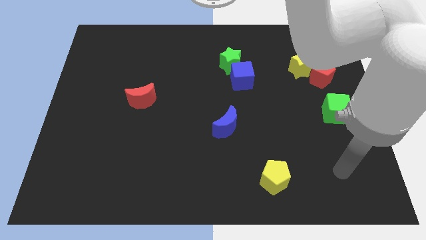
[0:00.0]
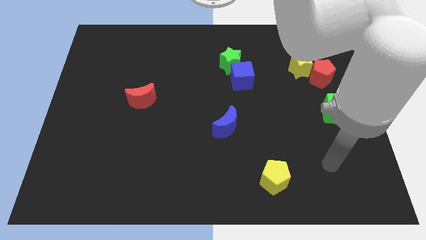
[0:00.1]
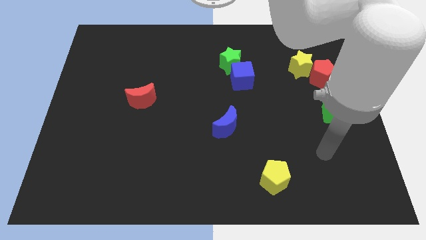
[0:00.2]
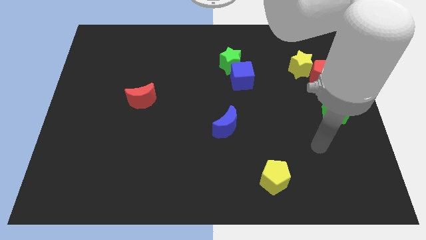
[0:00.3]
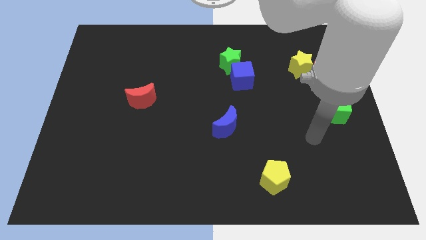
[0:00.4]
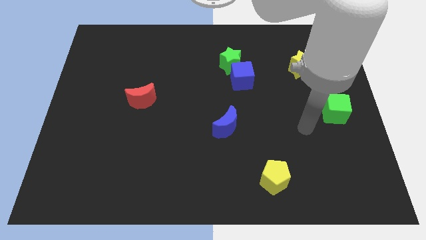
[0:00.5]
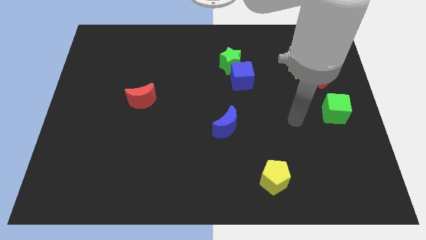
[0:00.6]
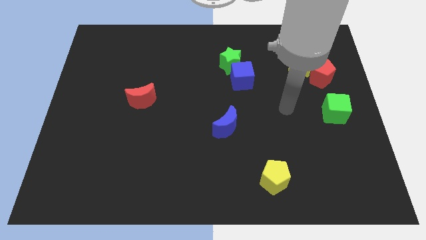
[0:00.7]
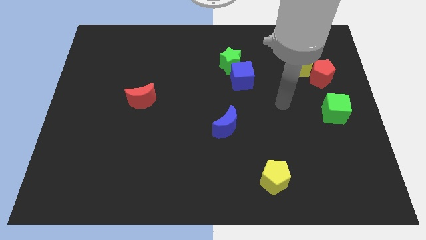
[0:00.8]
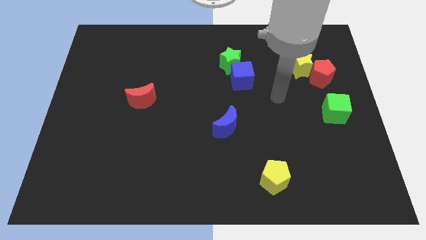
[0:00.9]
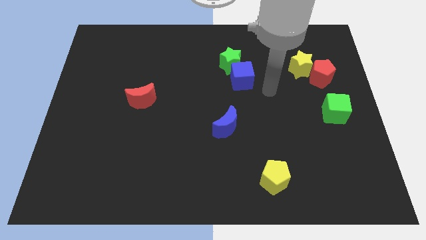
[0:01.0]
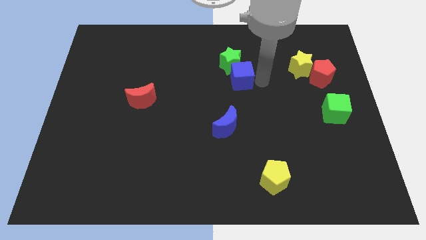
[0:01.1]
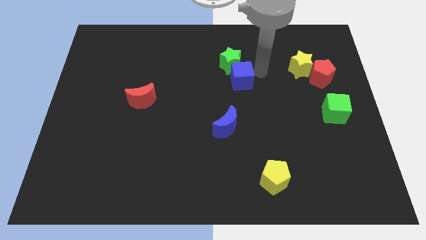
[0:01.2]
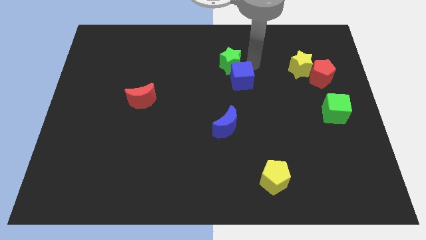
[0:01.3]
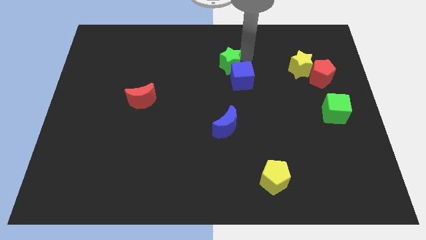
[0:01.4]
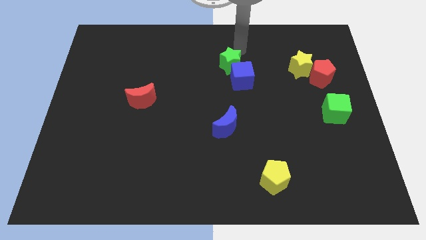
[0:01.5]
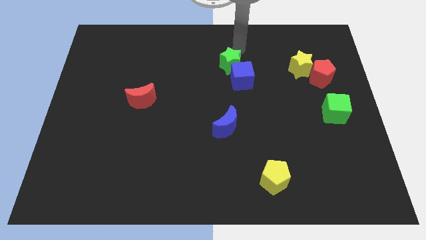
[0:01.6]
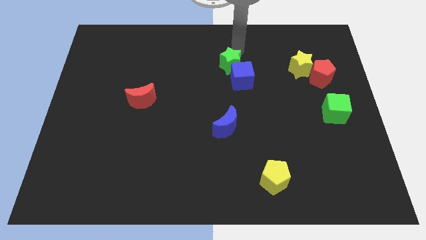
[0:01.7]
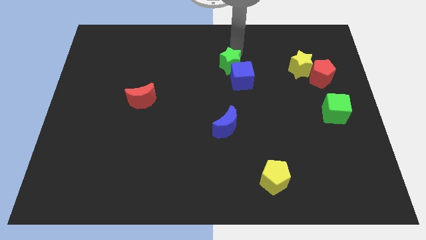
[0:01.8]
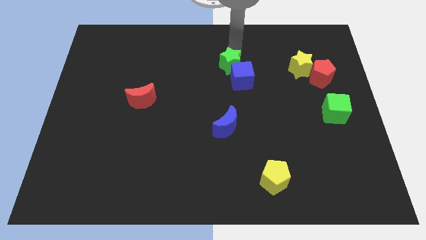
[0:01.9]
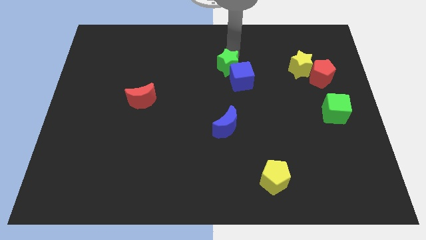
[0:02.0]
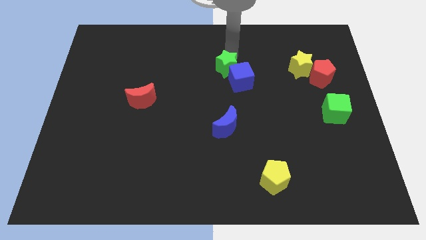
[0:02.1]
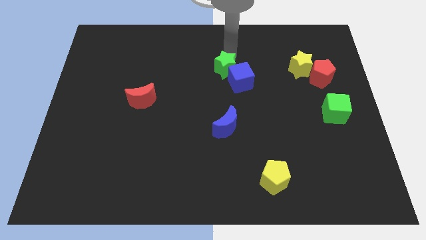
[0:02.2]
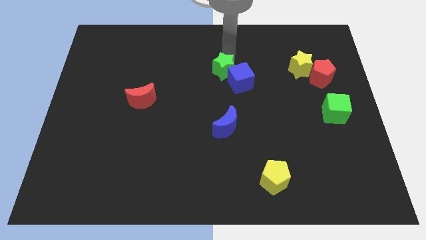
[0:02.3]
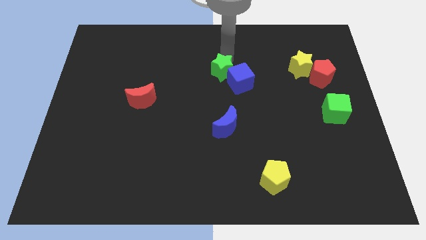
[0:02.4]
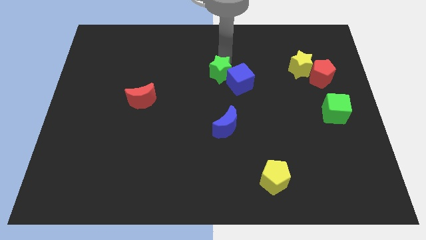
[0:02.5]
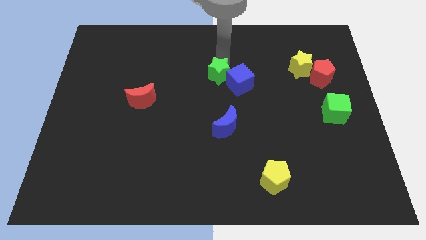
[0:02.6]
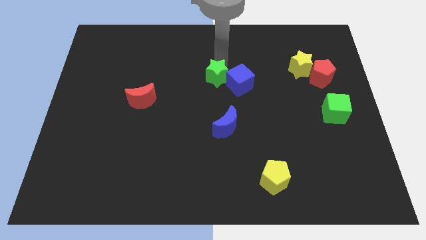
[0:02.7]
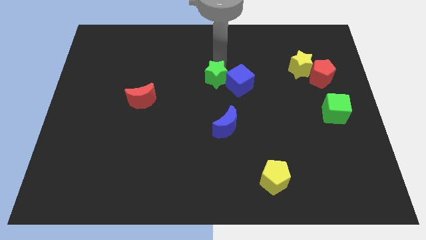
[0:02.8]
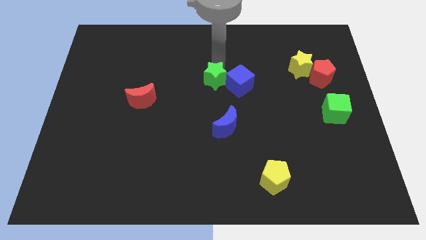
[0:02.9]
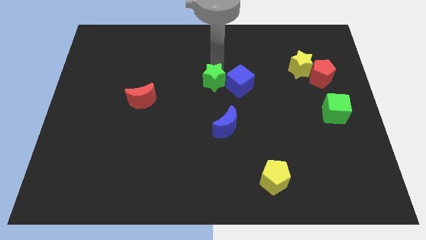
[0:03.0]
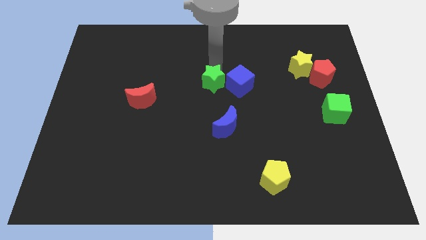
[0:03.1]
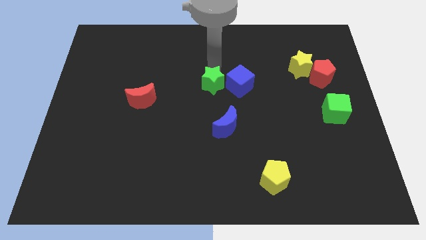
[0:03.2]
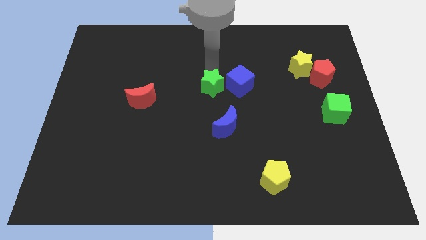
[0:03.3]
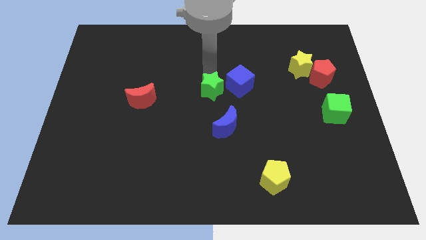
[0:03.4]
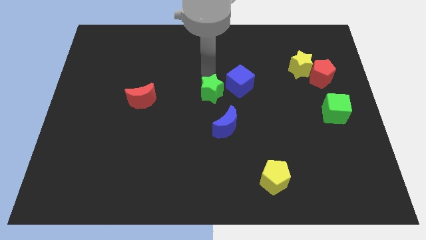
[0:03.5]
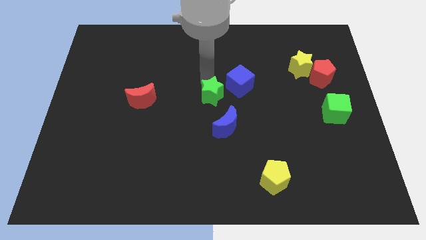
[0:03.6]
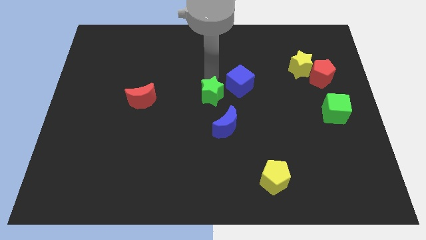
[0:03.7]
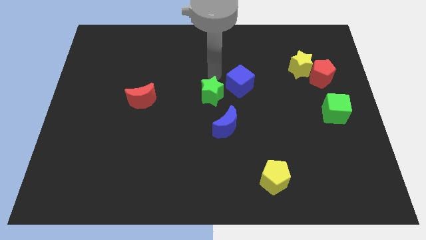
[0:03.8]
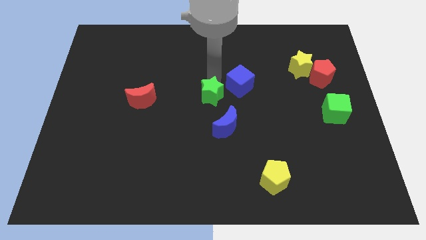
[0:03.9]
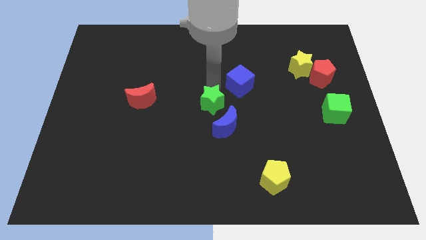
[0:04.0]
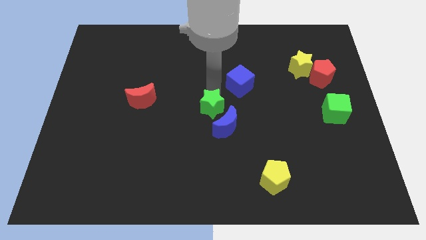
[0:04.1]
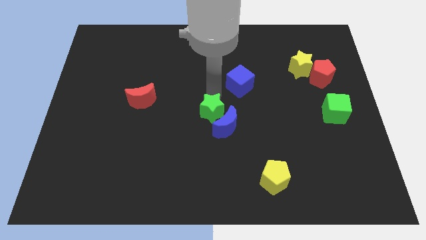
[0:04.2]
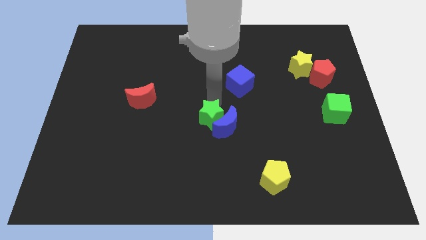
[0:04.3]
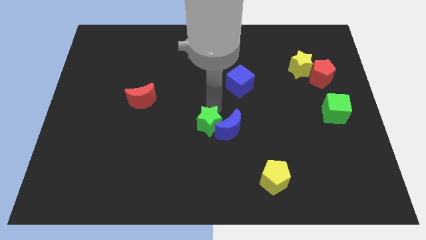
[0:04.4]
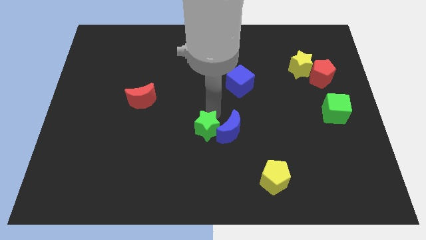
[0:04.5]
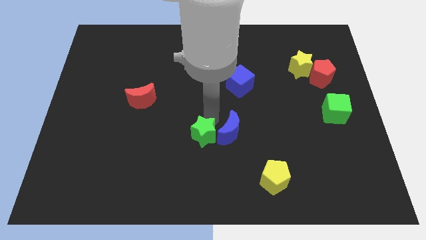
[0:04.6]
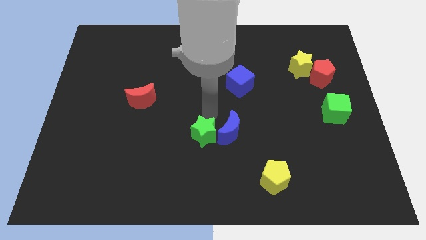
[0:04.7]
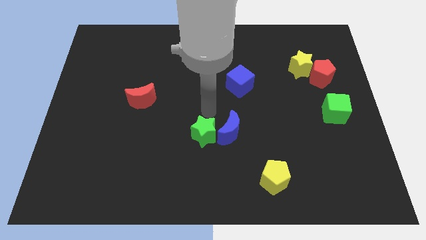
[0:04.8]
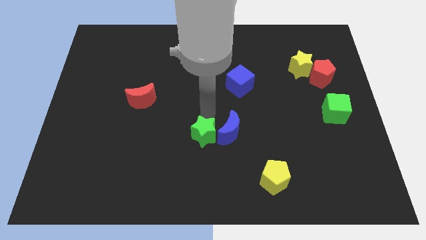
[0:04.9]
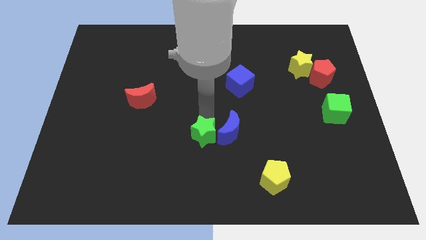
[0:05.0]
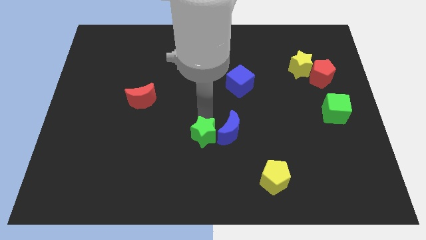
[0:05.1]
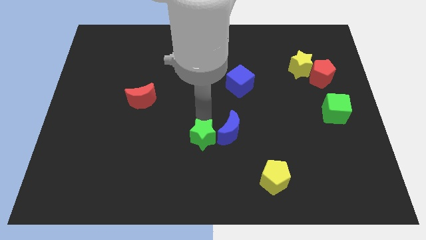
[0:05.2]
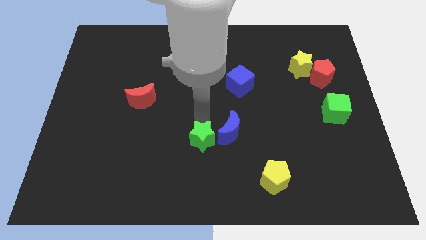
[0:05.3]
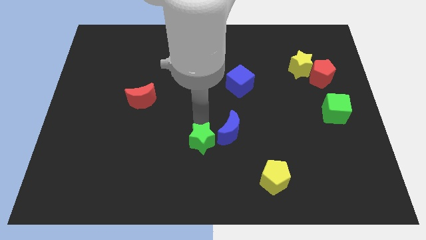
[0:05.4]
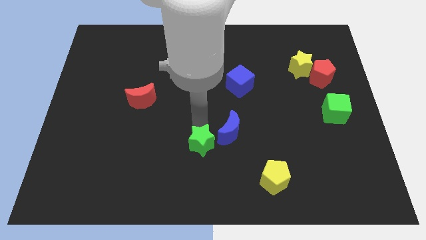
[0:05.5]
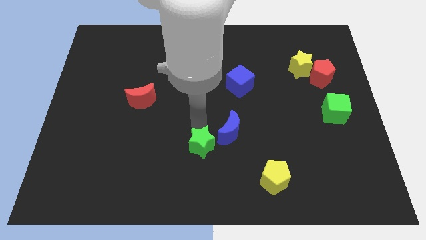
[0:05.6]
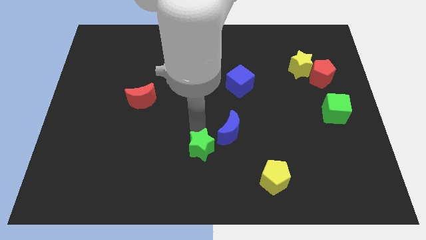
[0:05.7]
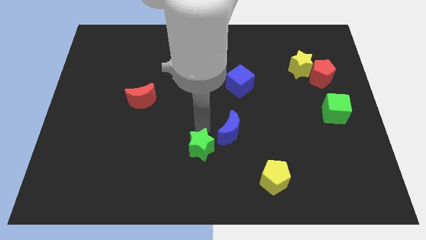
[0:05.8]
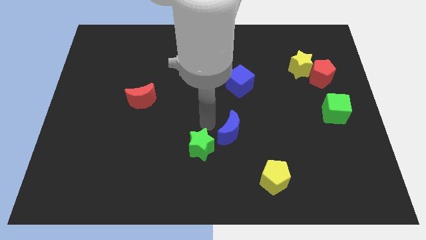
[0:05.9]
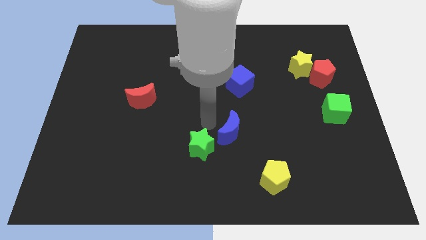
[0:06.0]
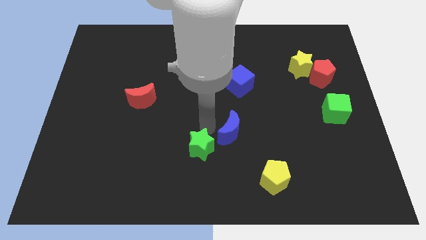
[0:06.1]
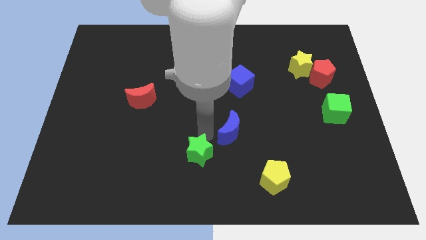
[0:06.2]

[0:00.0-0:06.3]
slide the green star to the bottom side
